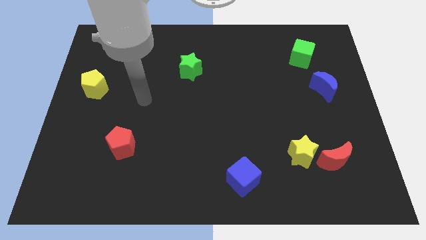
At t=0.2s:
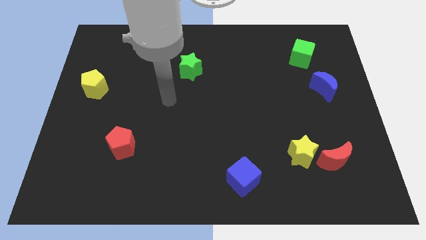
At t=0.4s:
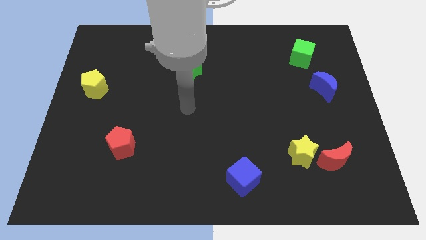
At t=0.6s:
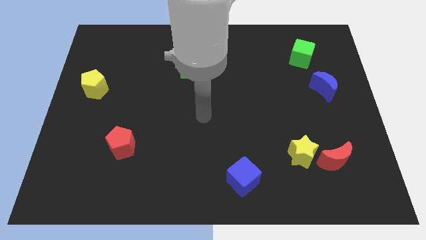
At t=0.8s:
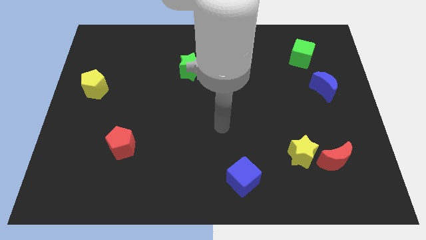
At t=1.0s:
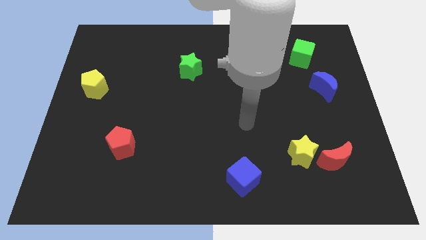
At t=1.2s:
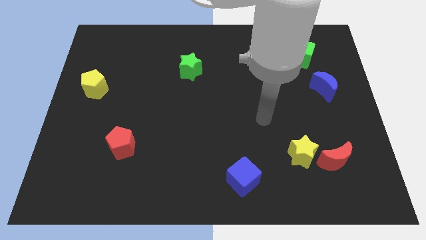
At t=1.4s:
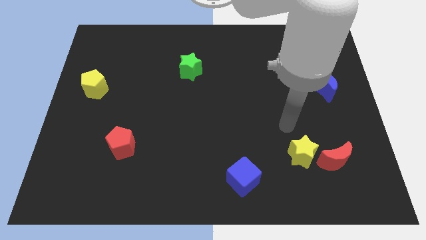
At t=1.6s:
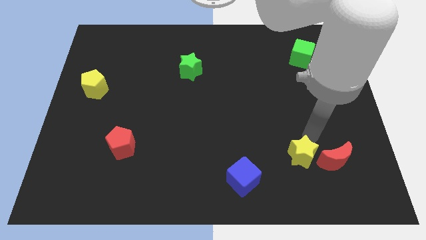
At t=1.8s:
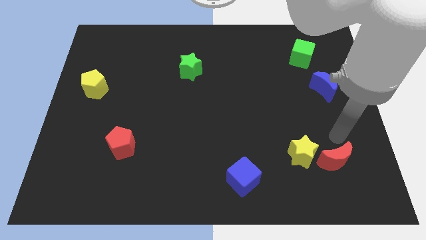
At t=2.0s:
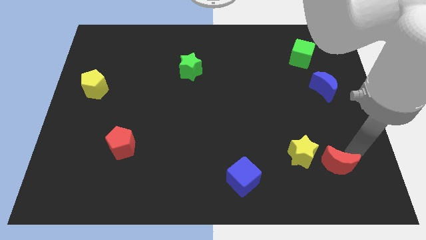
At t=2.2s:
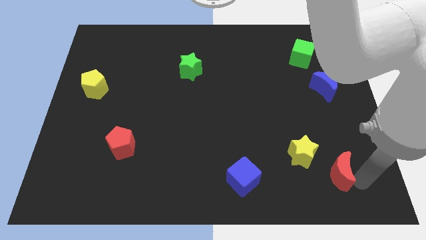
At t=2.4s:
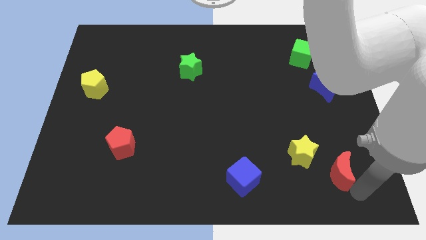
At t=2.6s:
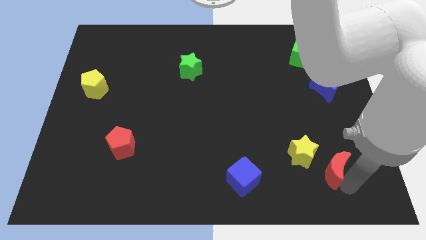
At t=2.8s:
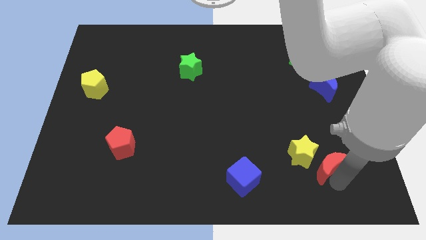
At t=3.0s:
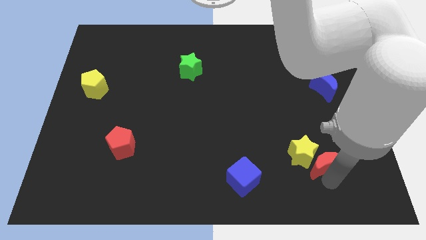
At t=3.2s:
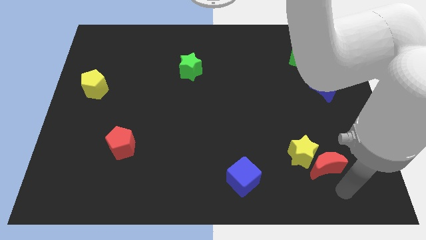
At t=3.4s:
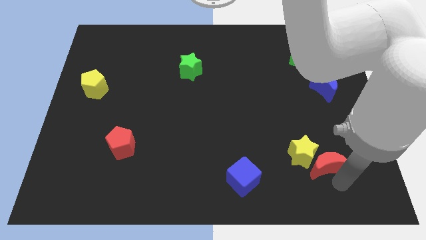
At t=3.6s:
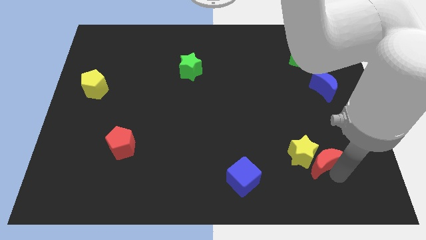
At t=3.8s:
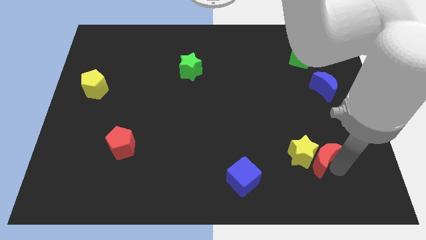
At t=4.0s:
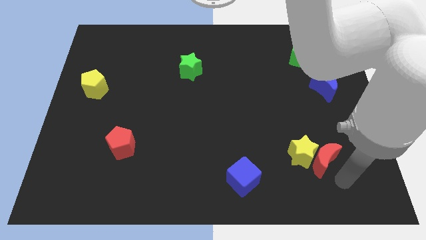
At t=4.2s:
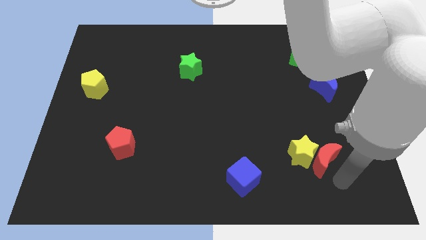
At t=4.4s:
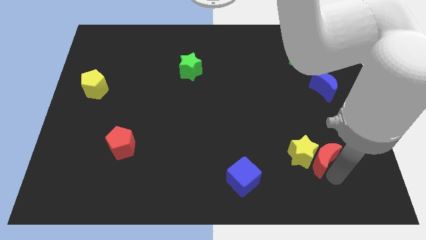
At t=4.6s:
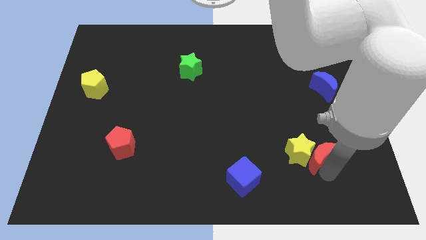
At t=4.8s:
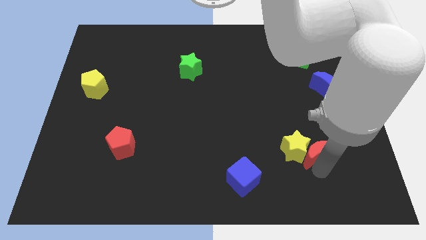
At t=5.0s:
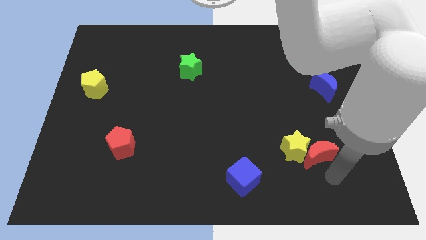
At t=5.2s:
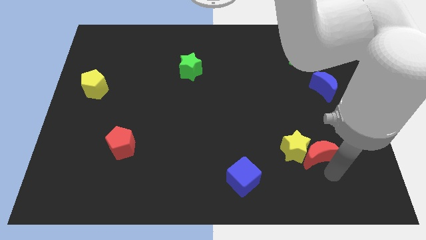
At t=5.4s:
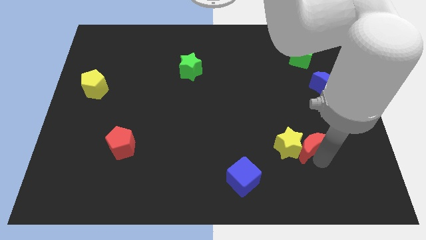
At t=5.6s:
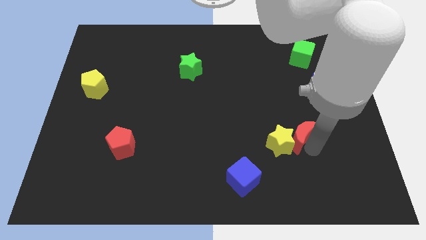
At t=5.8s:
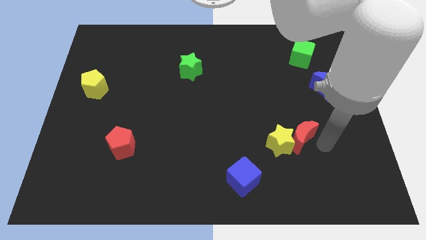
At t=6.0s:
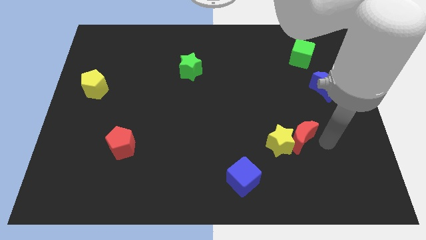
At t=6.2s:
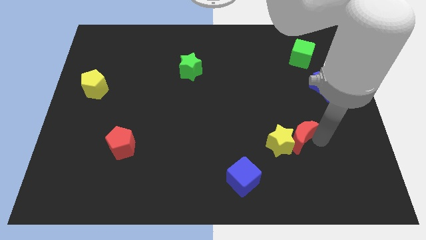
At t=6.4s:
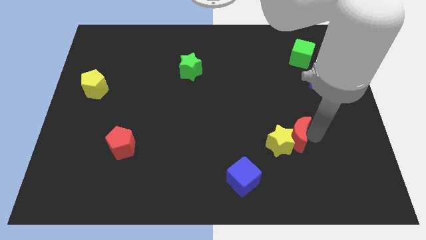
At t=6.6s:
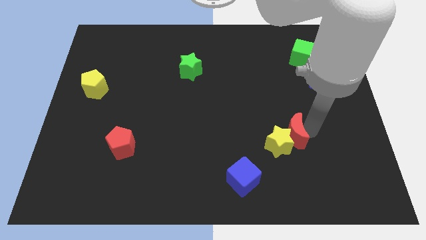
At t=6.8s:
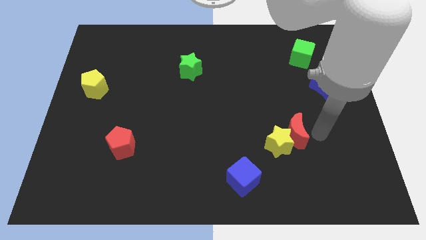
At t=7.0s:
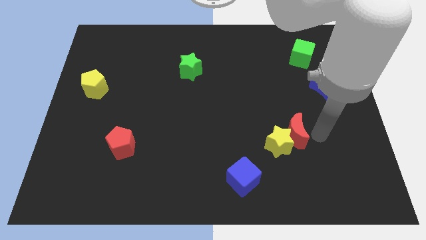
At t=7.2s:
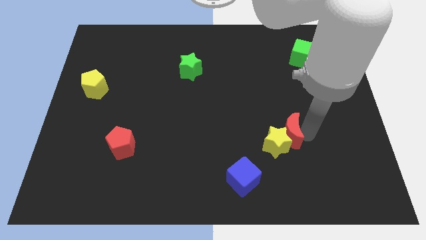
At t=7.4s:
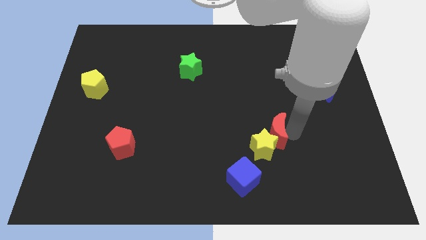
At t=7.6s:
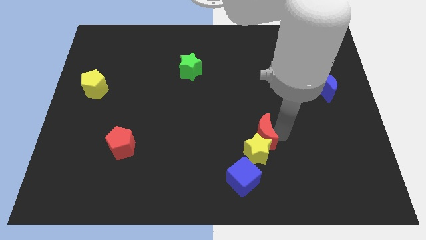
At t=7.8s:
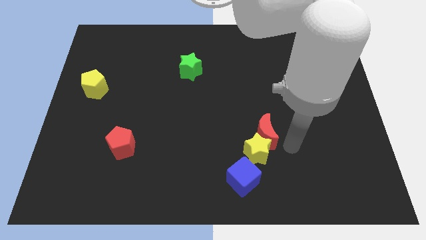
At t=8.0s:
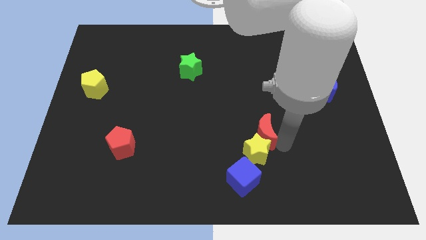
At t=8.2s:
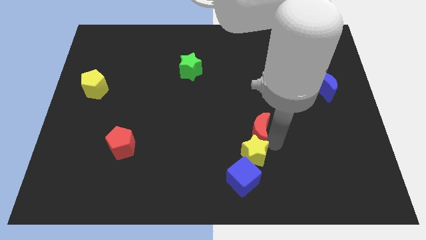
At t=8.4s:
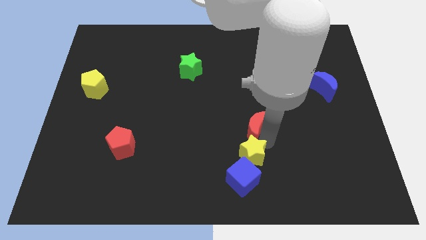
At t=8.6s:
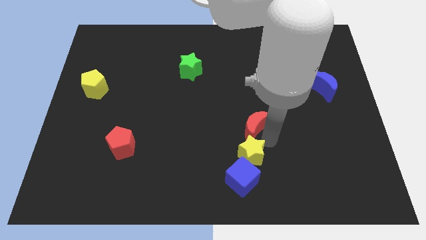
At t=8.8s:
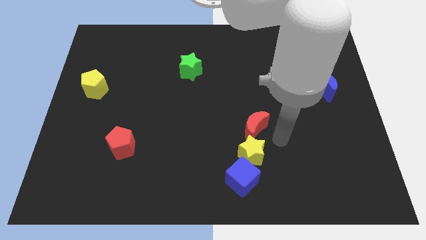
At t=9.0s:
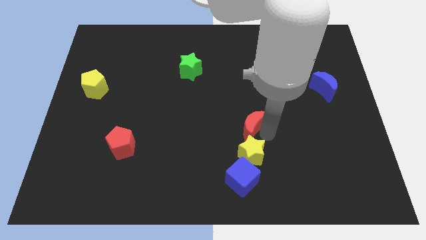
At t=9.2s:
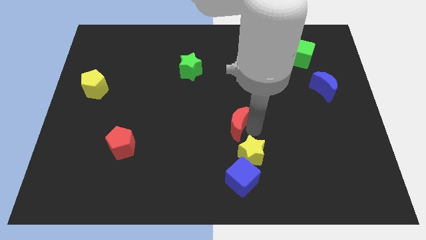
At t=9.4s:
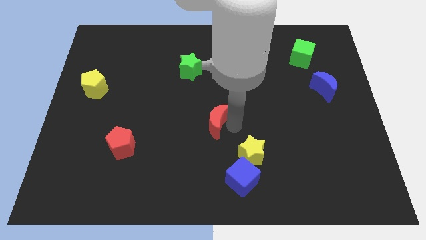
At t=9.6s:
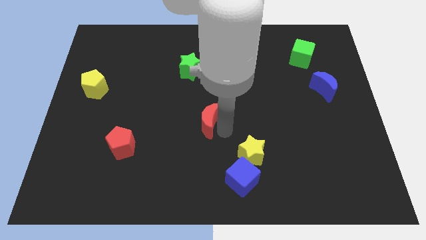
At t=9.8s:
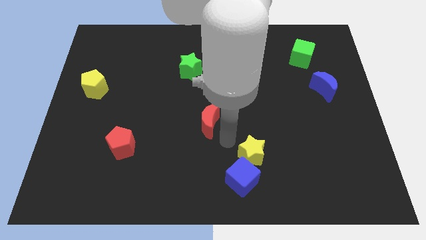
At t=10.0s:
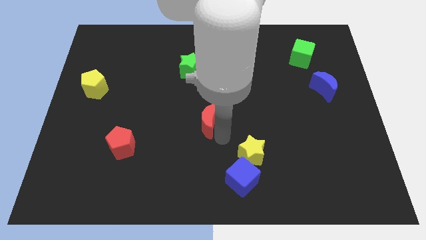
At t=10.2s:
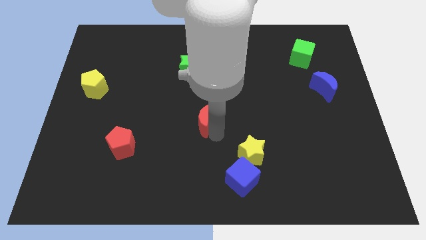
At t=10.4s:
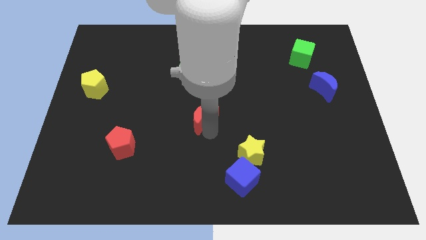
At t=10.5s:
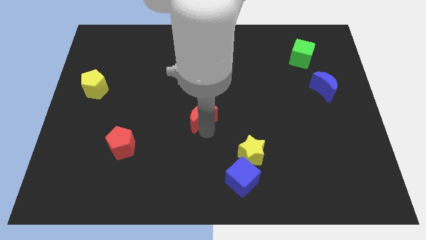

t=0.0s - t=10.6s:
put the red moon to the bottom of the green star
